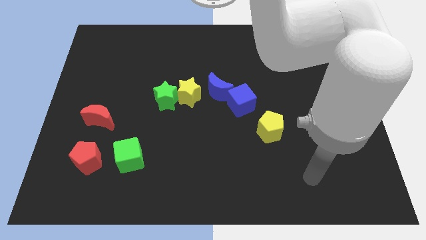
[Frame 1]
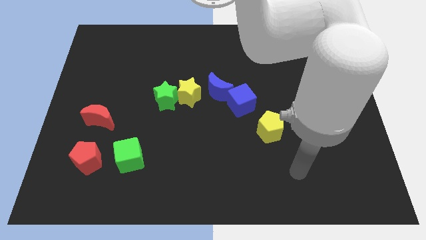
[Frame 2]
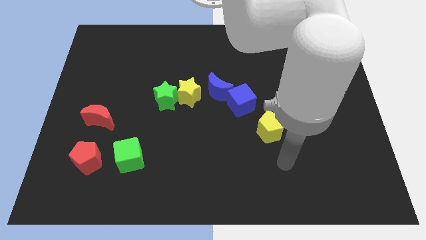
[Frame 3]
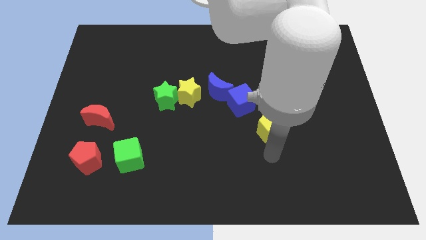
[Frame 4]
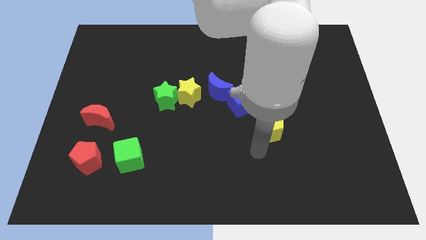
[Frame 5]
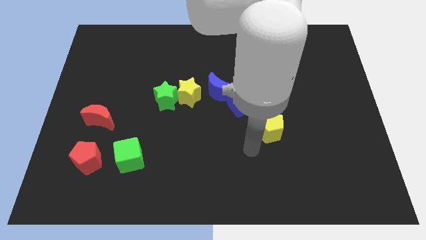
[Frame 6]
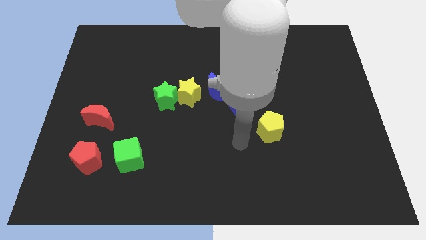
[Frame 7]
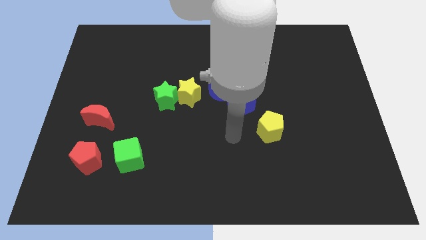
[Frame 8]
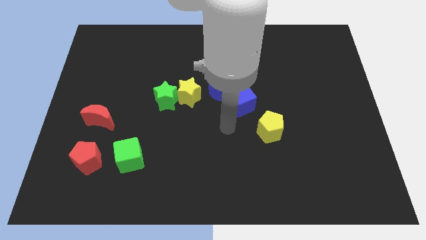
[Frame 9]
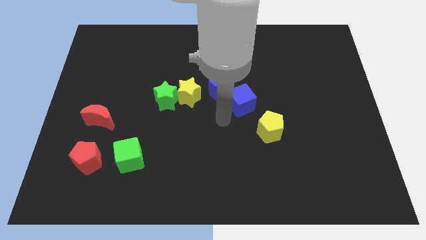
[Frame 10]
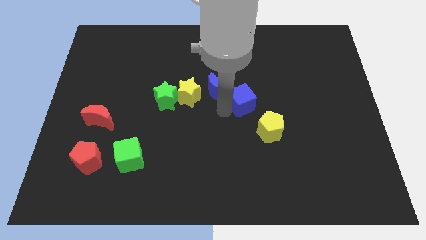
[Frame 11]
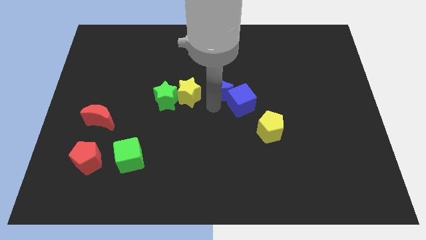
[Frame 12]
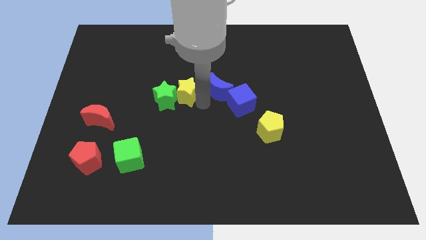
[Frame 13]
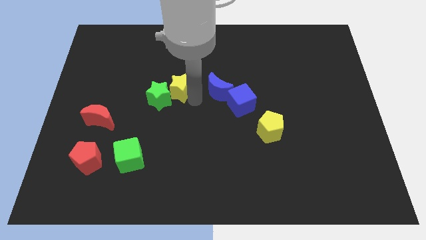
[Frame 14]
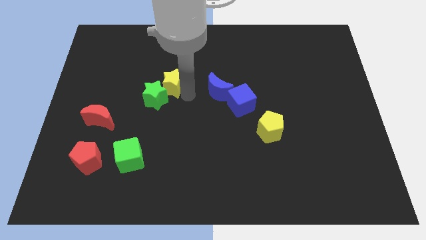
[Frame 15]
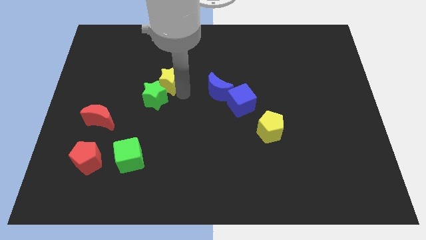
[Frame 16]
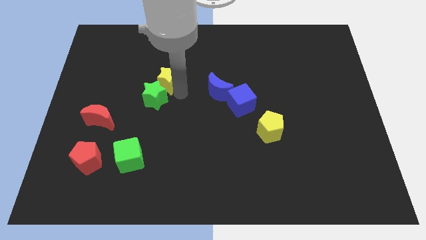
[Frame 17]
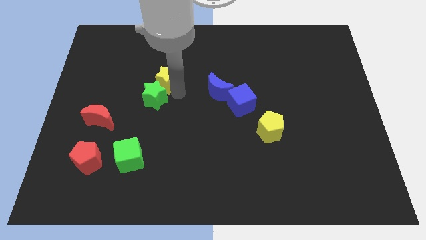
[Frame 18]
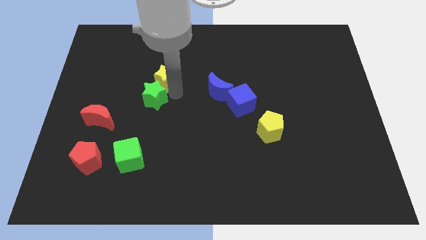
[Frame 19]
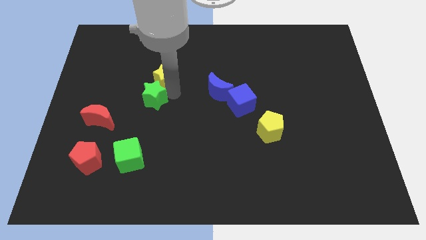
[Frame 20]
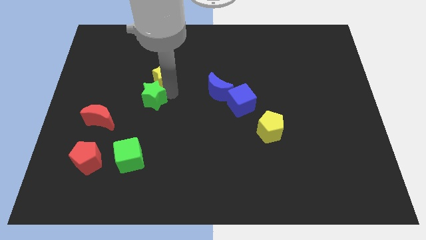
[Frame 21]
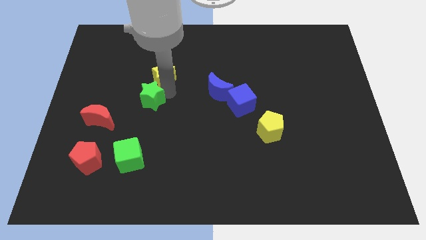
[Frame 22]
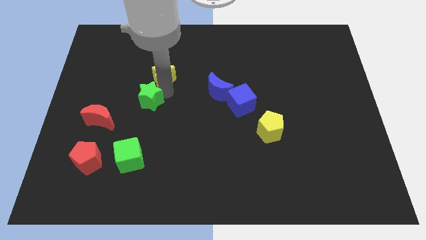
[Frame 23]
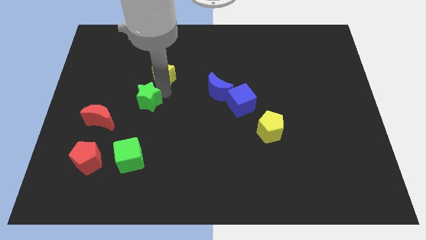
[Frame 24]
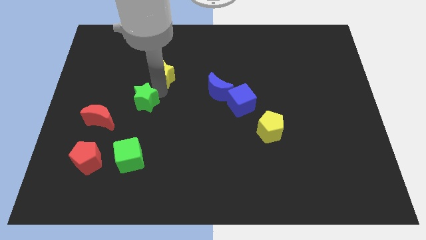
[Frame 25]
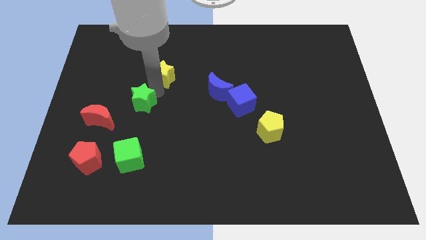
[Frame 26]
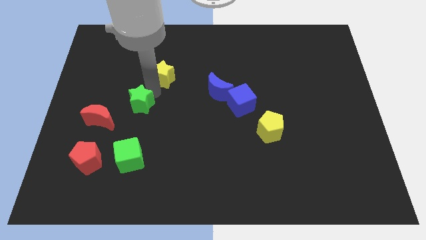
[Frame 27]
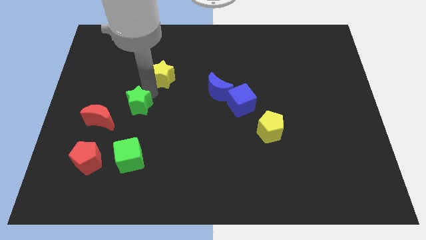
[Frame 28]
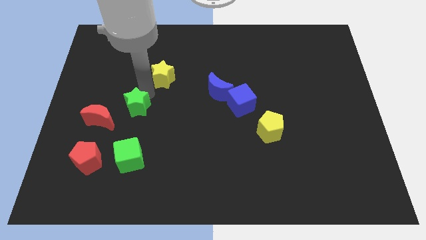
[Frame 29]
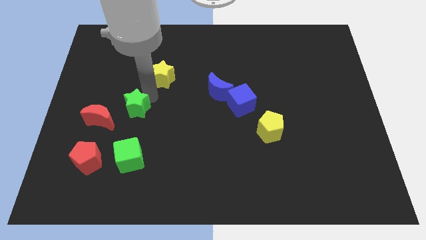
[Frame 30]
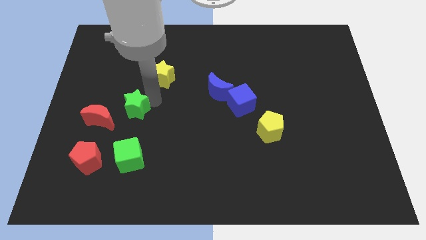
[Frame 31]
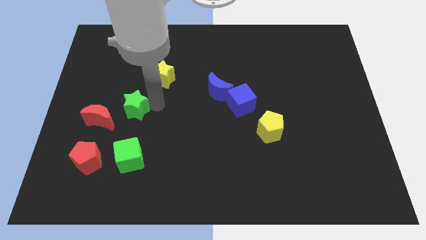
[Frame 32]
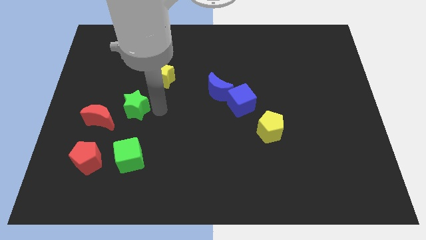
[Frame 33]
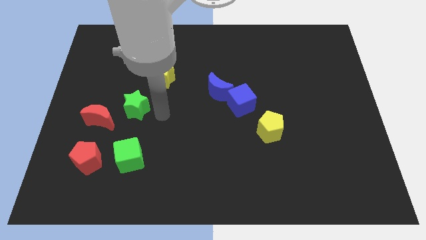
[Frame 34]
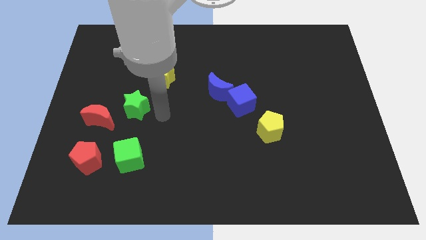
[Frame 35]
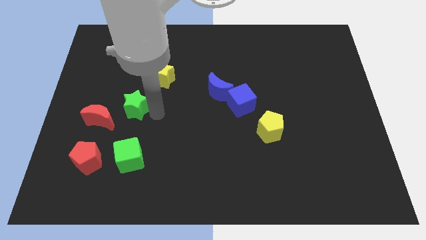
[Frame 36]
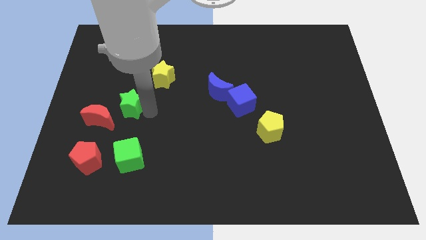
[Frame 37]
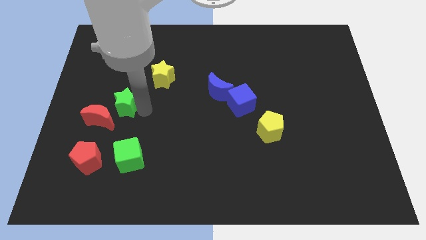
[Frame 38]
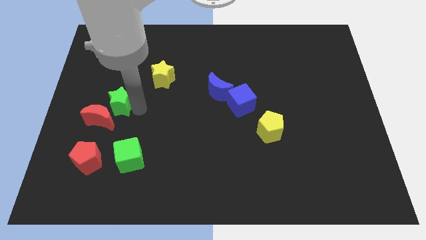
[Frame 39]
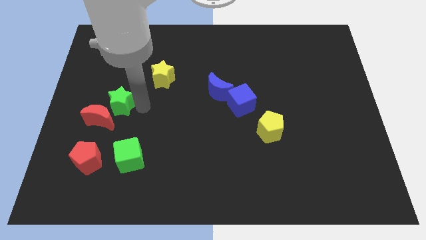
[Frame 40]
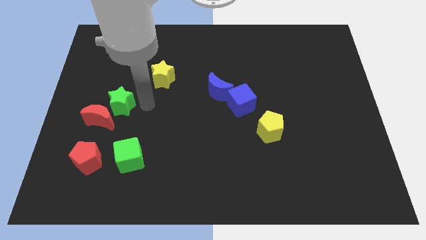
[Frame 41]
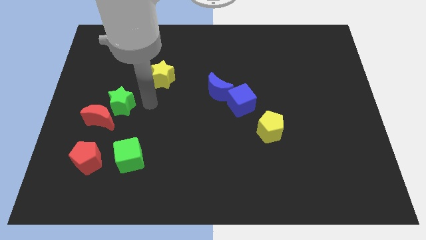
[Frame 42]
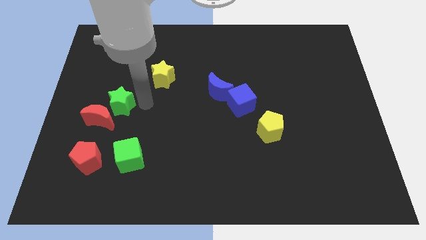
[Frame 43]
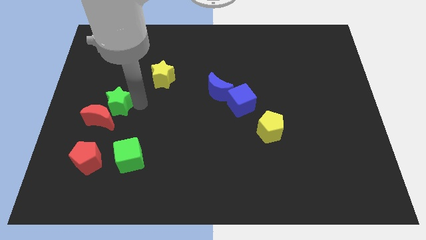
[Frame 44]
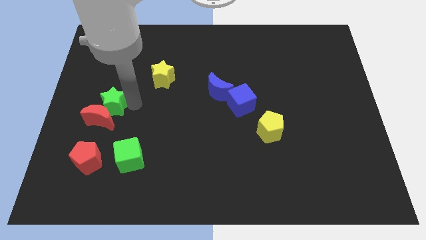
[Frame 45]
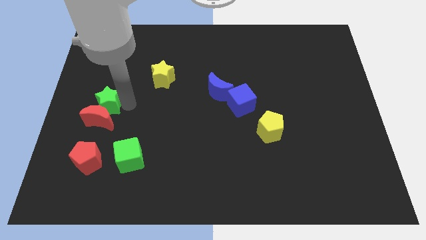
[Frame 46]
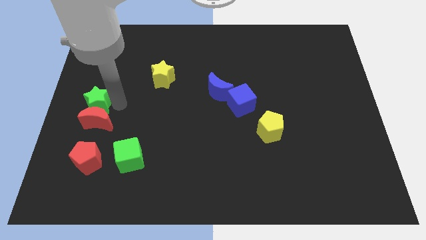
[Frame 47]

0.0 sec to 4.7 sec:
put the green star to the center left

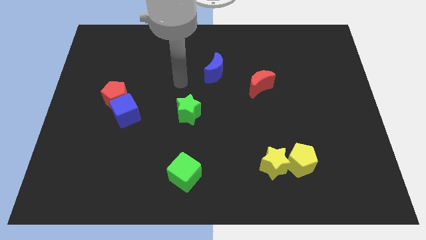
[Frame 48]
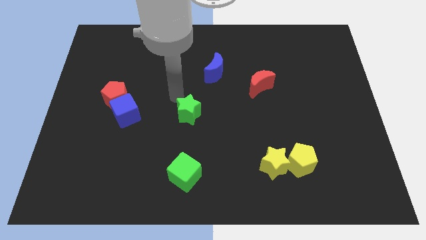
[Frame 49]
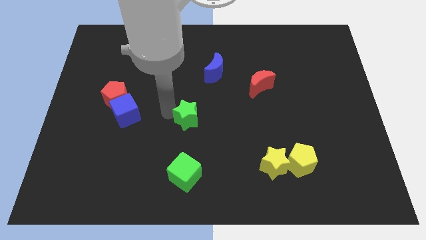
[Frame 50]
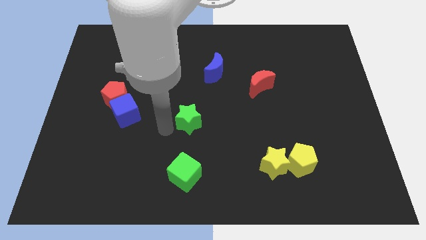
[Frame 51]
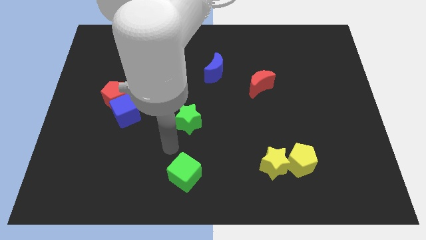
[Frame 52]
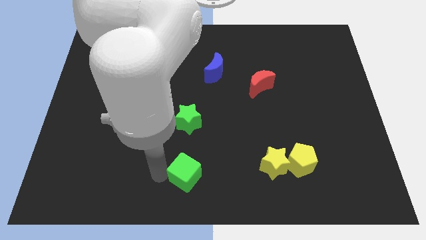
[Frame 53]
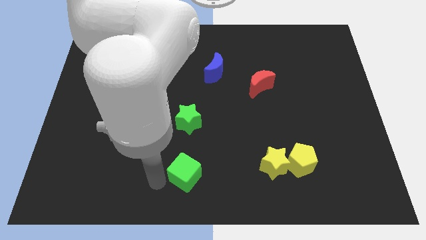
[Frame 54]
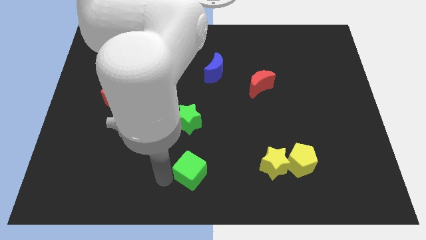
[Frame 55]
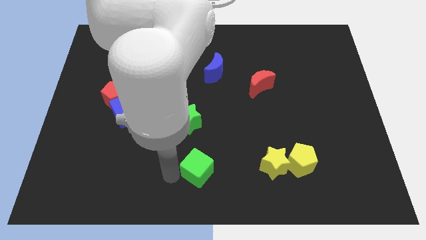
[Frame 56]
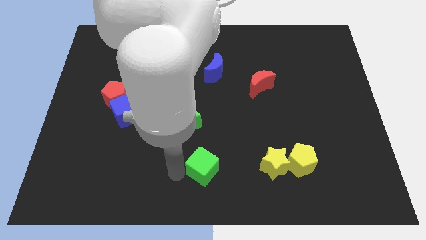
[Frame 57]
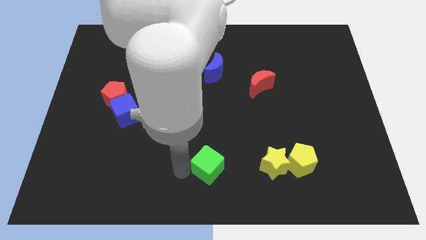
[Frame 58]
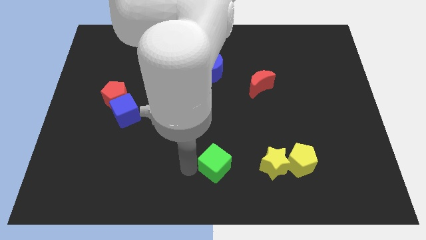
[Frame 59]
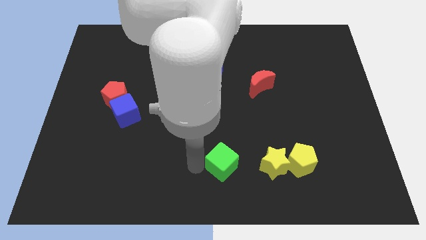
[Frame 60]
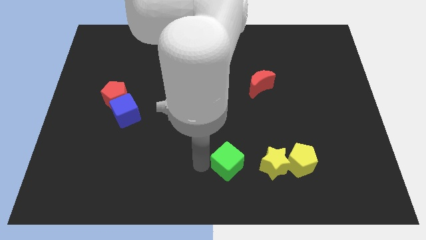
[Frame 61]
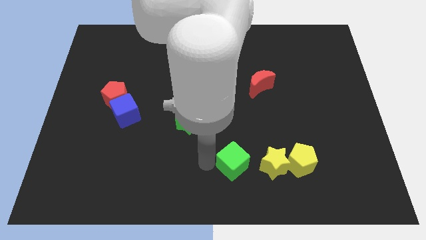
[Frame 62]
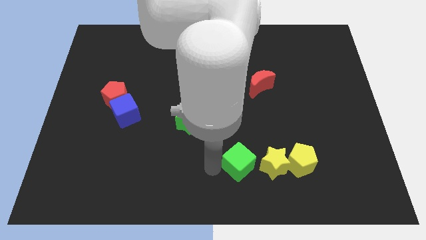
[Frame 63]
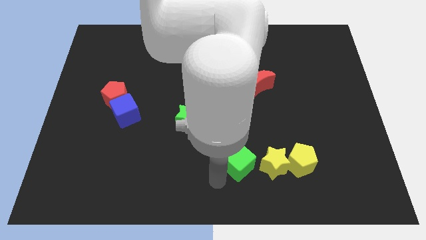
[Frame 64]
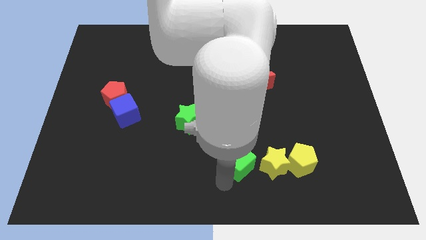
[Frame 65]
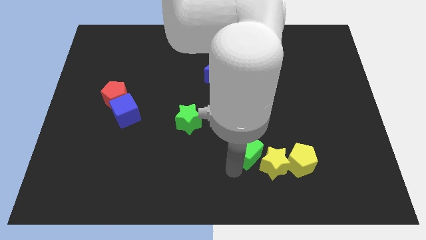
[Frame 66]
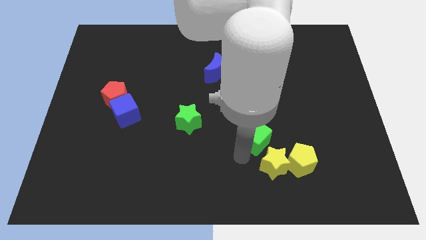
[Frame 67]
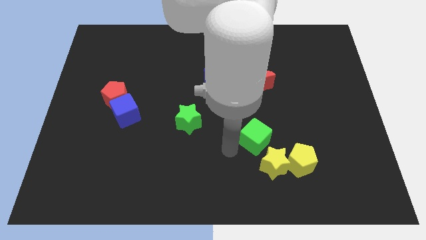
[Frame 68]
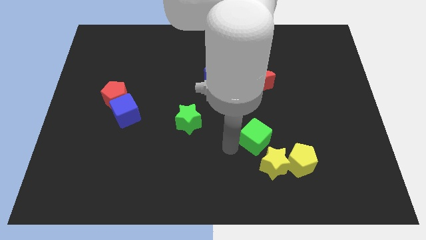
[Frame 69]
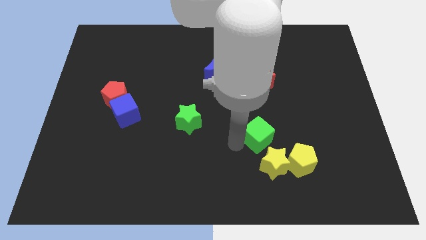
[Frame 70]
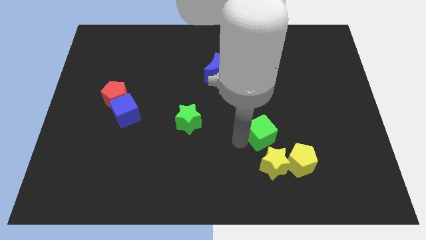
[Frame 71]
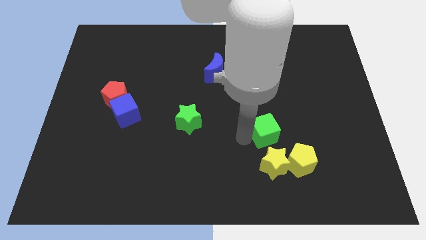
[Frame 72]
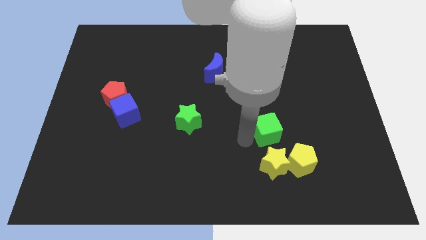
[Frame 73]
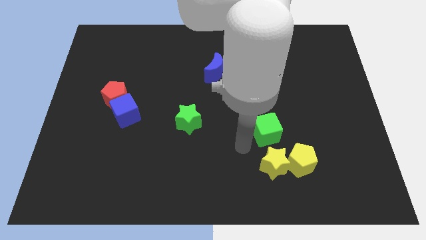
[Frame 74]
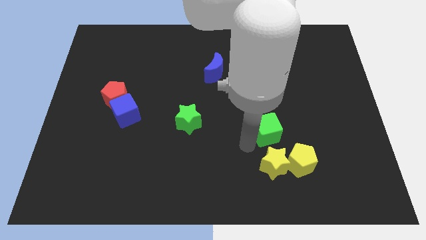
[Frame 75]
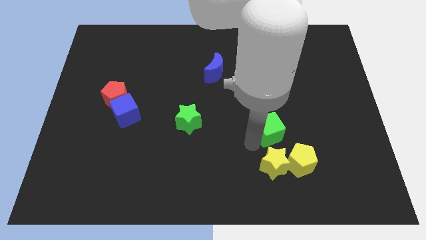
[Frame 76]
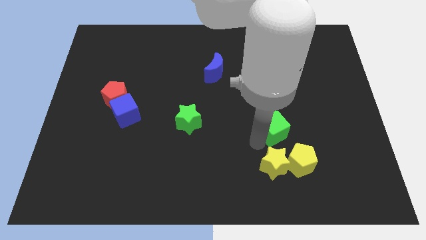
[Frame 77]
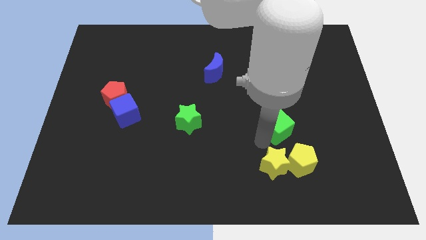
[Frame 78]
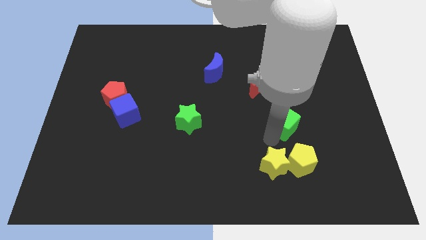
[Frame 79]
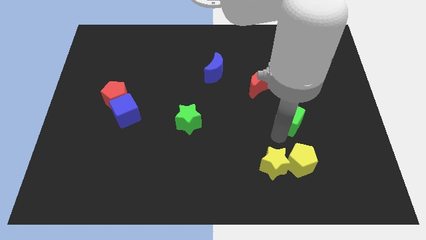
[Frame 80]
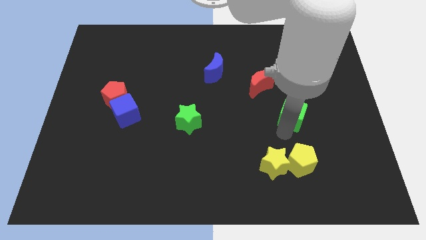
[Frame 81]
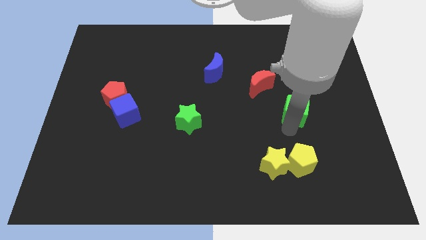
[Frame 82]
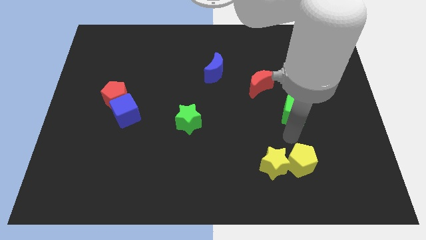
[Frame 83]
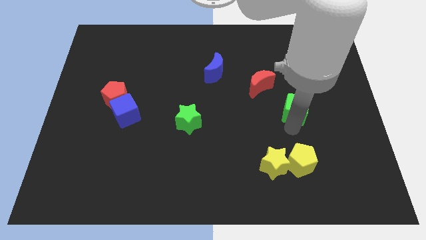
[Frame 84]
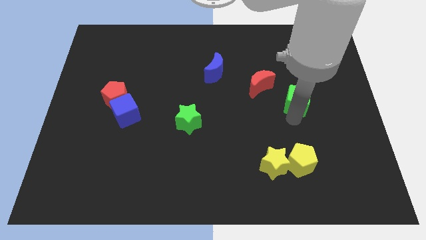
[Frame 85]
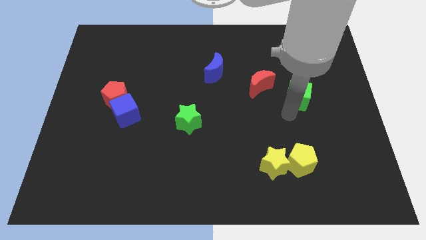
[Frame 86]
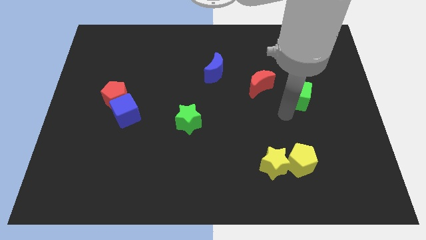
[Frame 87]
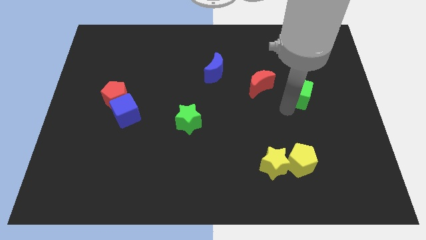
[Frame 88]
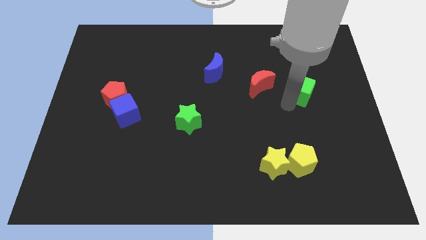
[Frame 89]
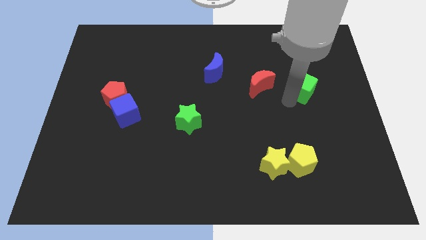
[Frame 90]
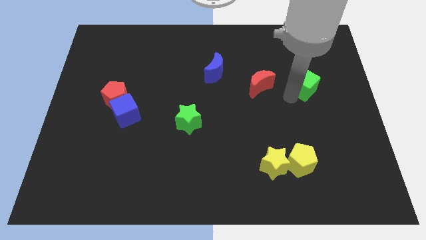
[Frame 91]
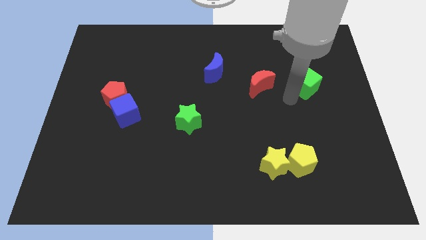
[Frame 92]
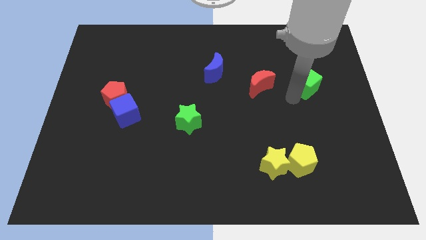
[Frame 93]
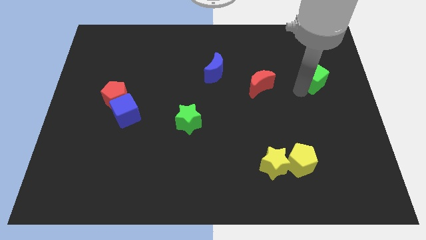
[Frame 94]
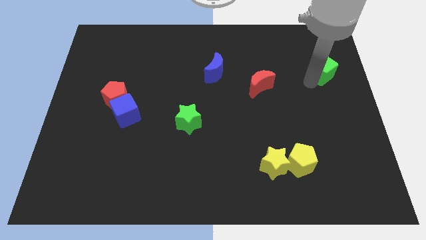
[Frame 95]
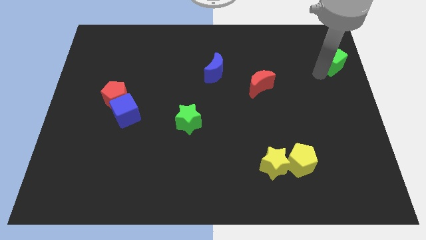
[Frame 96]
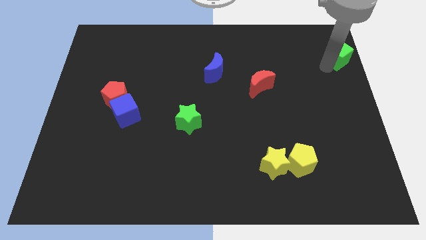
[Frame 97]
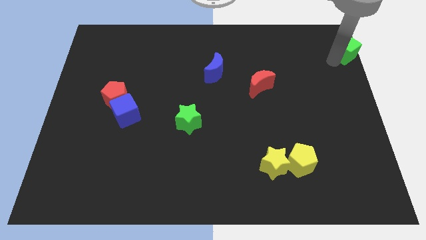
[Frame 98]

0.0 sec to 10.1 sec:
move the green cube to the top right of the board
